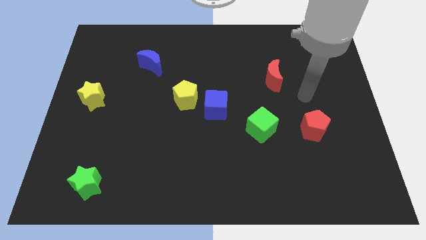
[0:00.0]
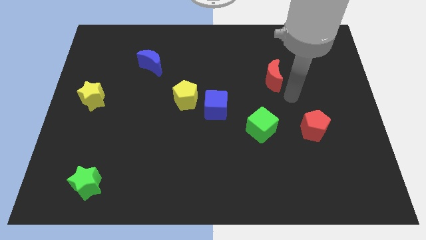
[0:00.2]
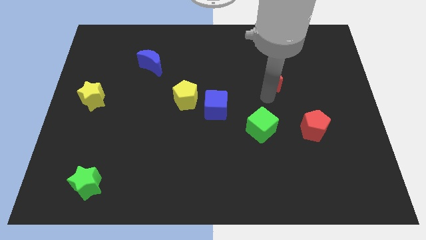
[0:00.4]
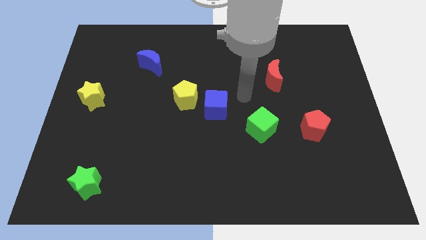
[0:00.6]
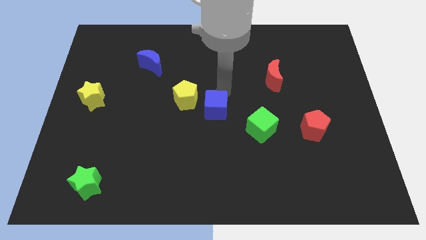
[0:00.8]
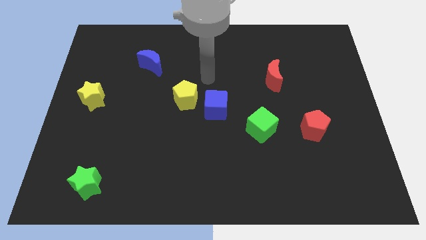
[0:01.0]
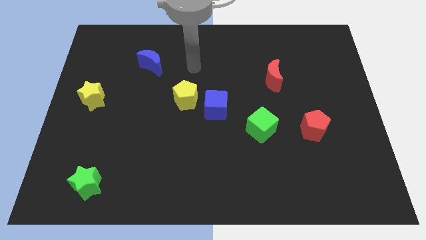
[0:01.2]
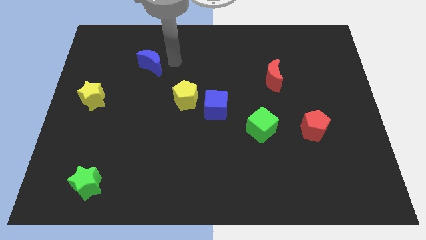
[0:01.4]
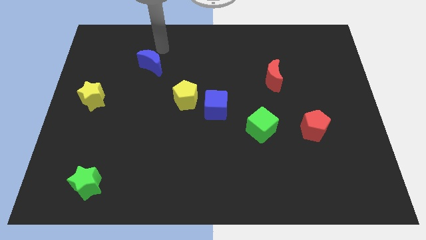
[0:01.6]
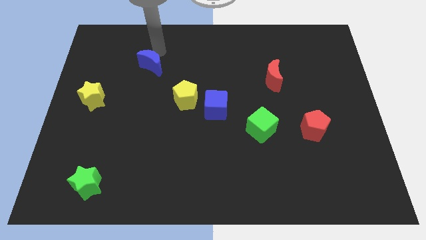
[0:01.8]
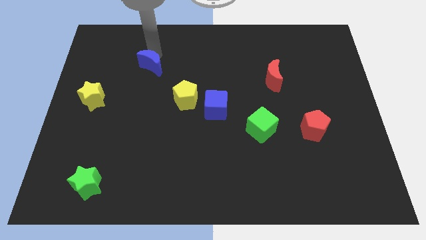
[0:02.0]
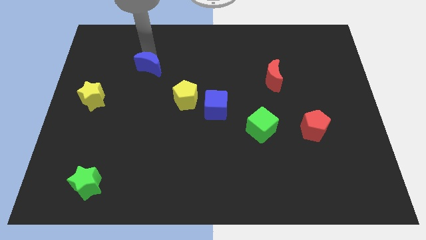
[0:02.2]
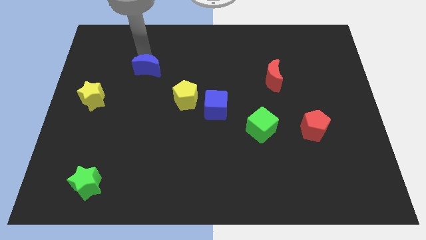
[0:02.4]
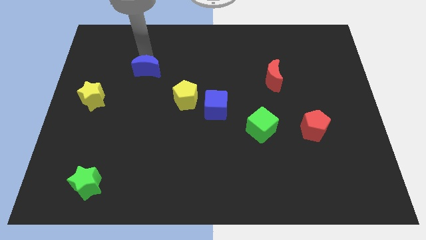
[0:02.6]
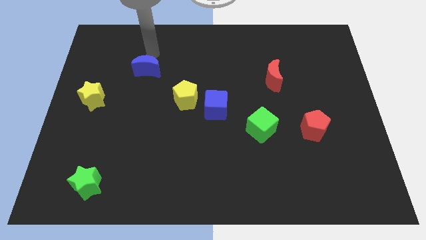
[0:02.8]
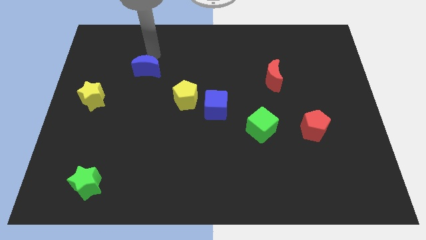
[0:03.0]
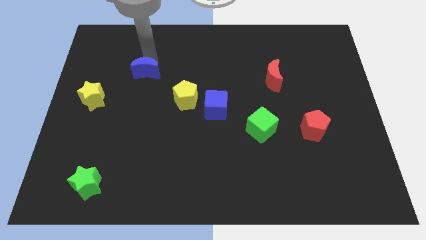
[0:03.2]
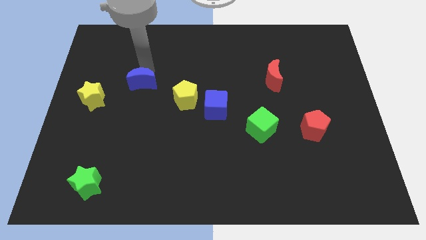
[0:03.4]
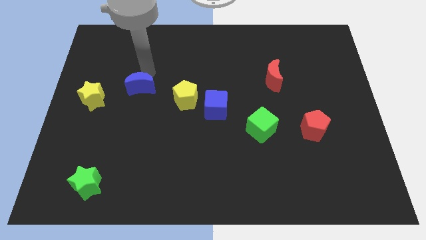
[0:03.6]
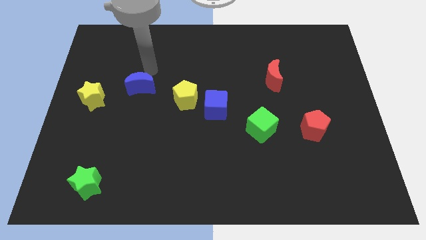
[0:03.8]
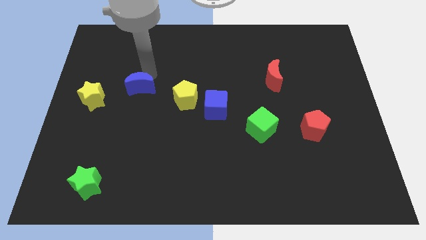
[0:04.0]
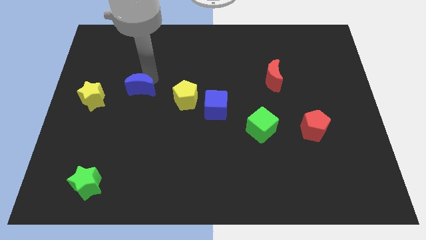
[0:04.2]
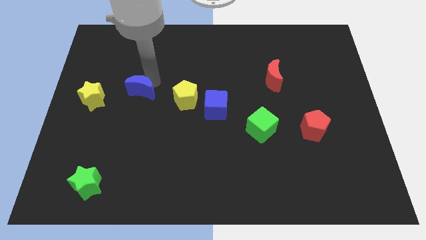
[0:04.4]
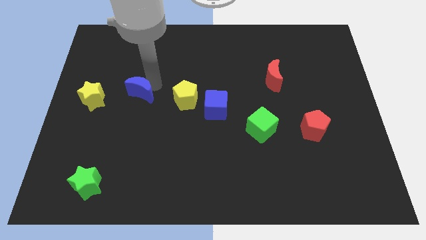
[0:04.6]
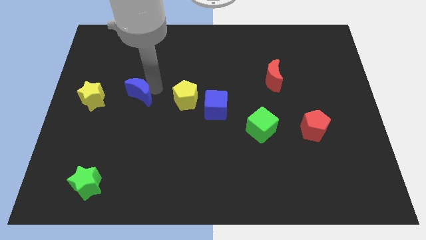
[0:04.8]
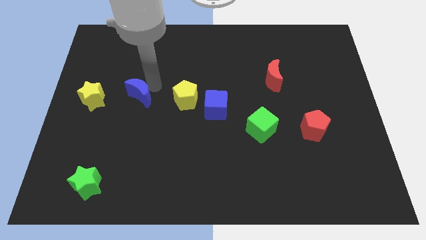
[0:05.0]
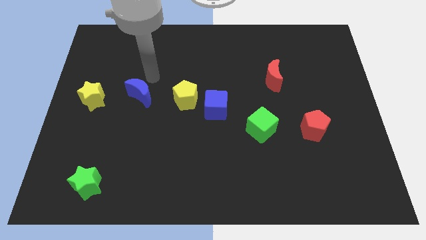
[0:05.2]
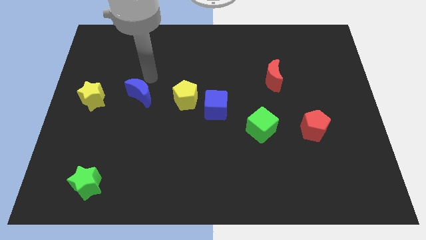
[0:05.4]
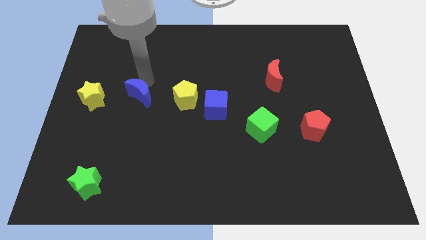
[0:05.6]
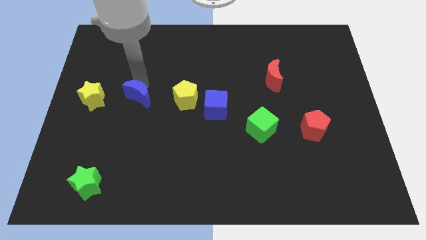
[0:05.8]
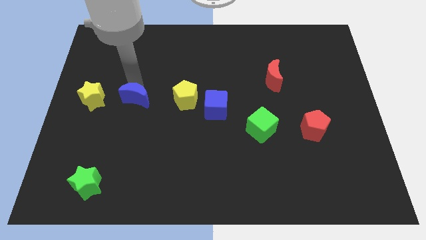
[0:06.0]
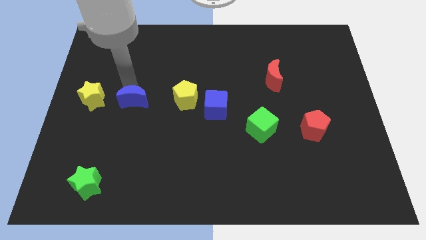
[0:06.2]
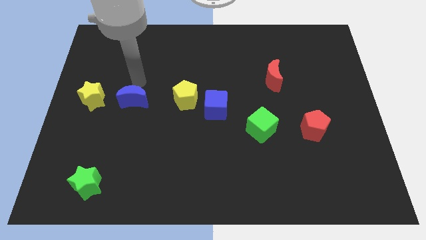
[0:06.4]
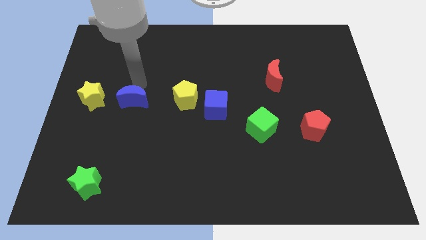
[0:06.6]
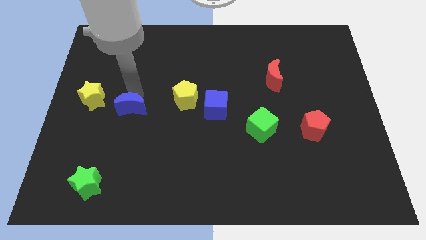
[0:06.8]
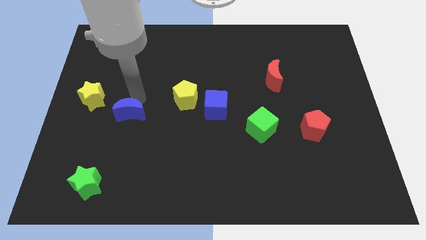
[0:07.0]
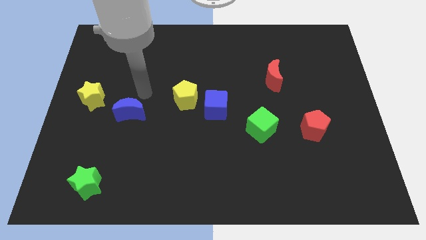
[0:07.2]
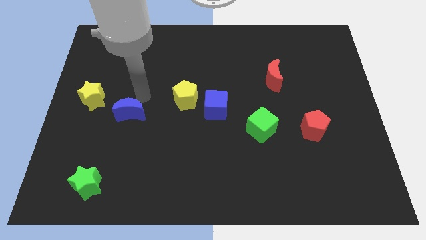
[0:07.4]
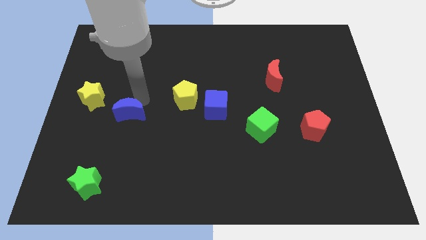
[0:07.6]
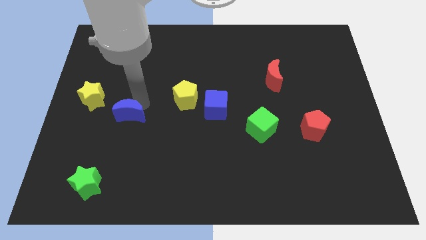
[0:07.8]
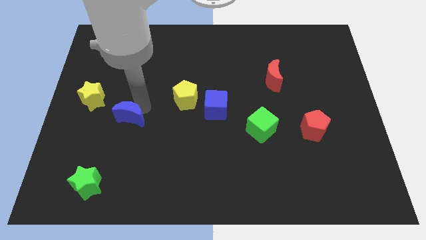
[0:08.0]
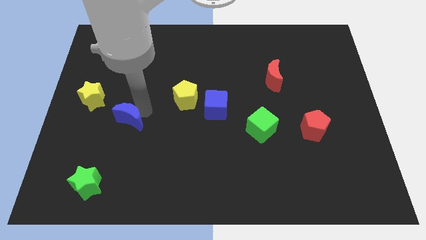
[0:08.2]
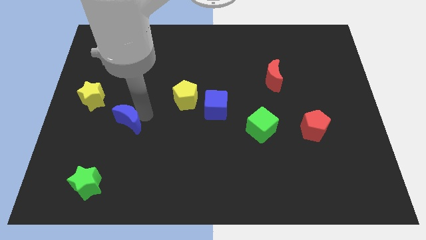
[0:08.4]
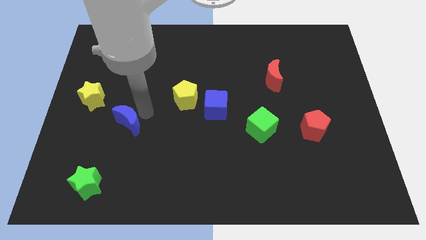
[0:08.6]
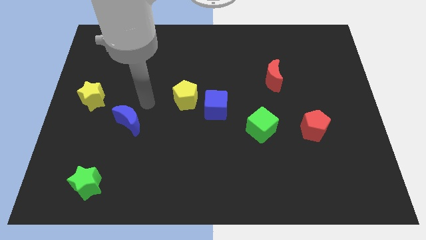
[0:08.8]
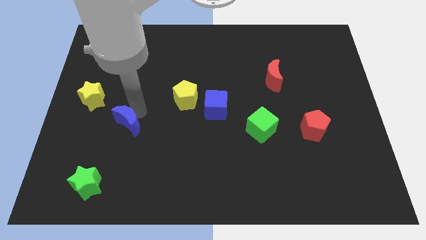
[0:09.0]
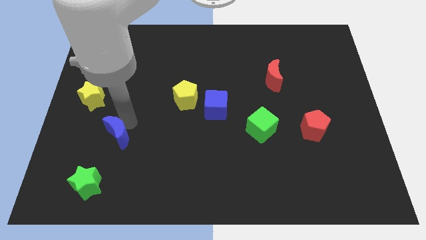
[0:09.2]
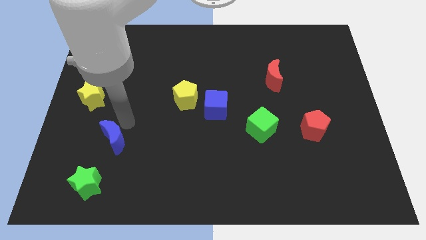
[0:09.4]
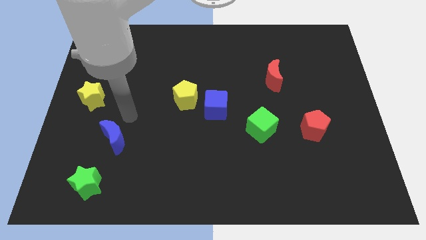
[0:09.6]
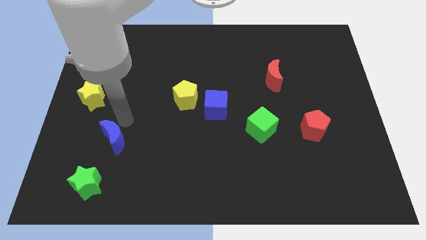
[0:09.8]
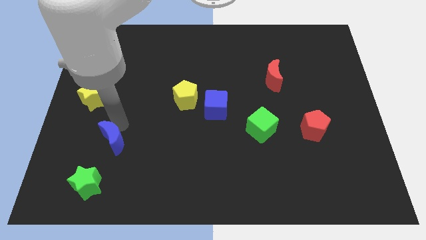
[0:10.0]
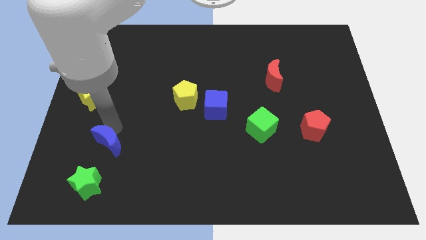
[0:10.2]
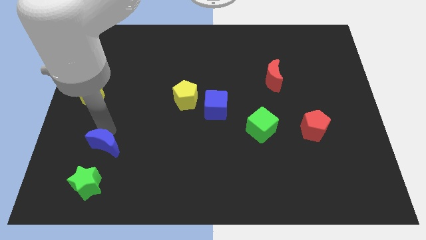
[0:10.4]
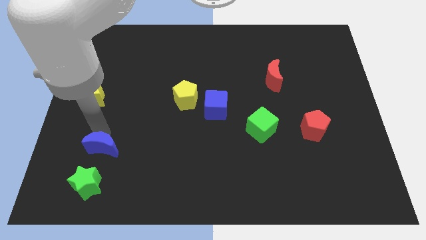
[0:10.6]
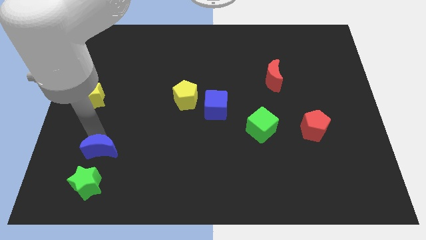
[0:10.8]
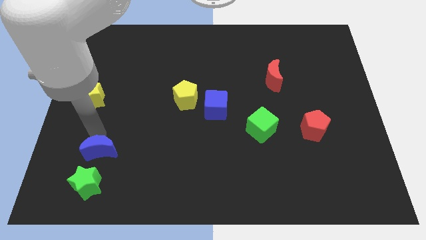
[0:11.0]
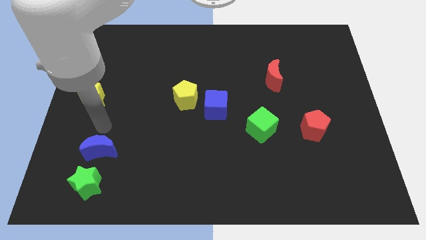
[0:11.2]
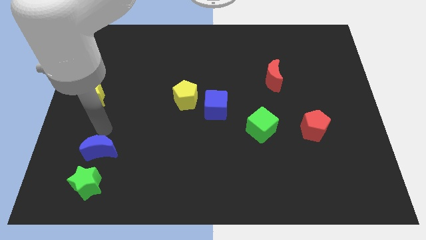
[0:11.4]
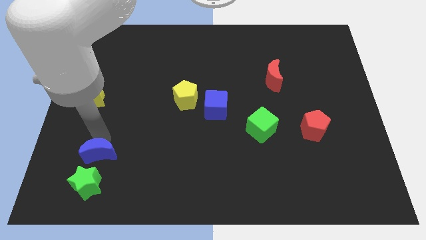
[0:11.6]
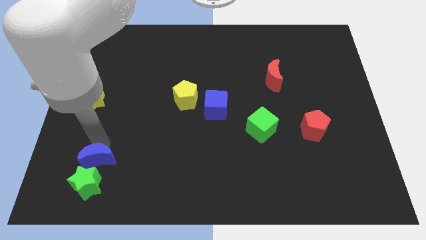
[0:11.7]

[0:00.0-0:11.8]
put the blue moon to the green star

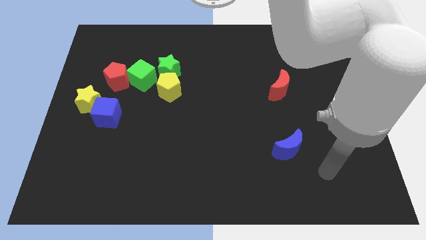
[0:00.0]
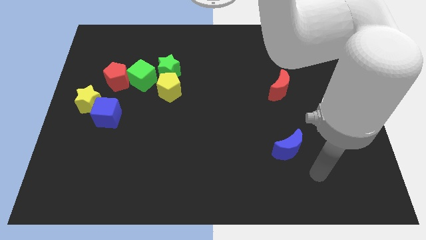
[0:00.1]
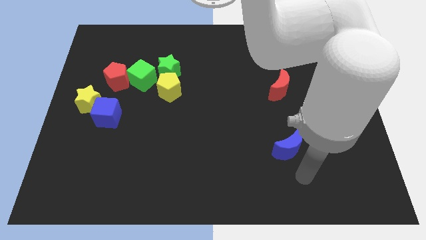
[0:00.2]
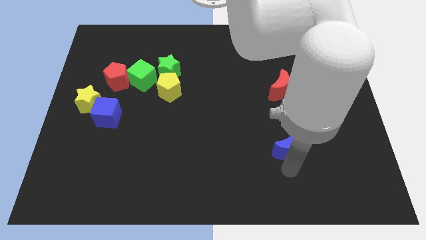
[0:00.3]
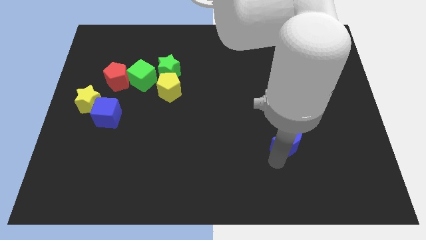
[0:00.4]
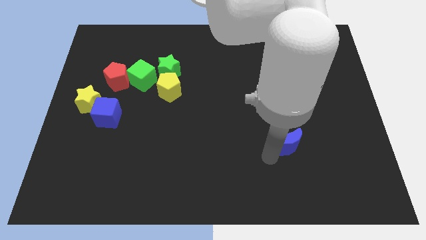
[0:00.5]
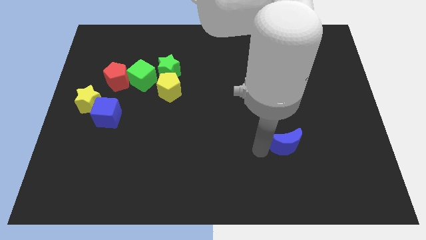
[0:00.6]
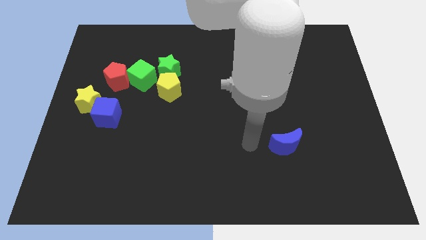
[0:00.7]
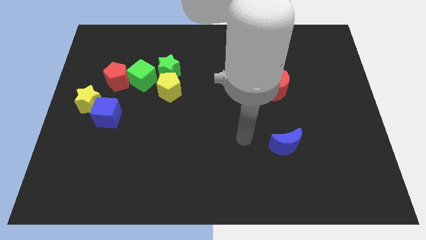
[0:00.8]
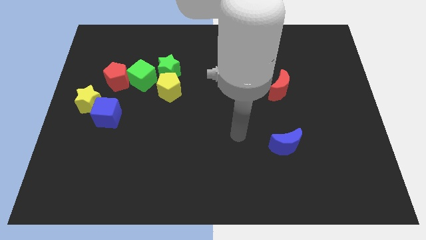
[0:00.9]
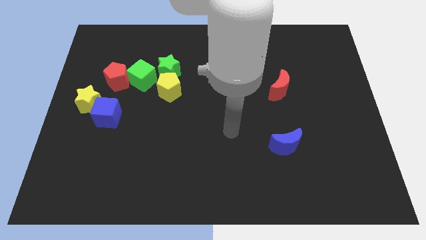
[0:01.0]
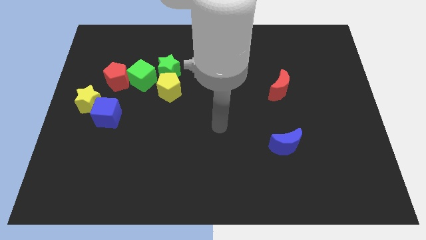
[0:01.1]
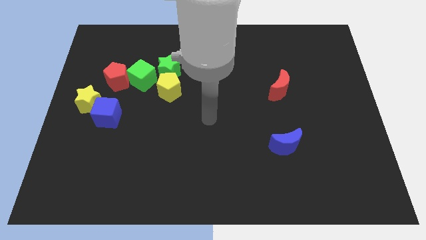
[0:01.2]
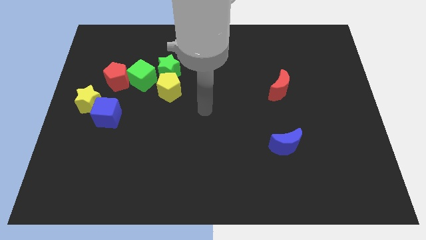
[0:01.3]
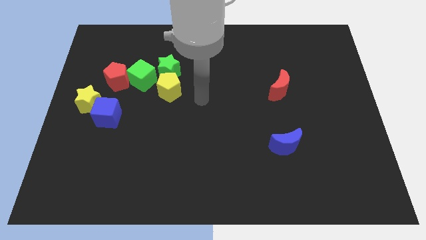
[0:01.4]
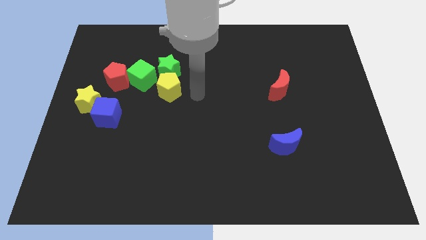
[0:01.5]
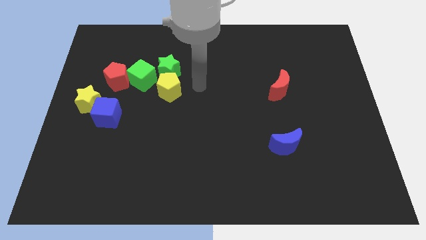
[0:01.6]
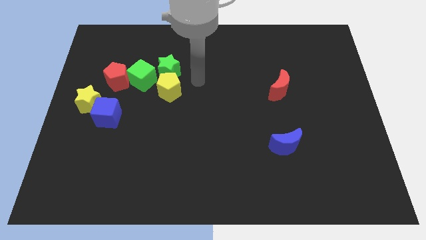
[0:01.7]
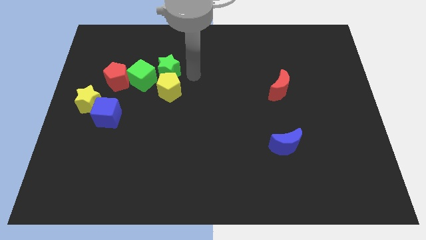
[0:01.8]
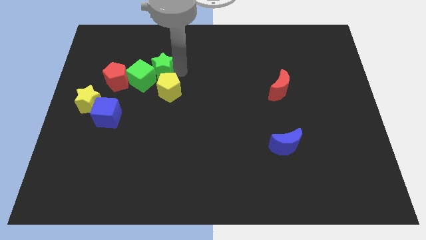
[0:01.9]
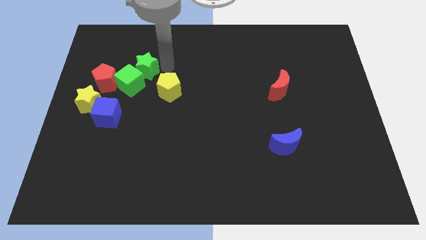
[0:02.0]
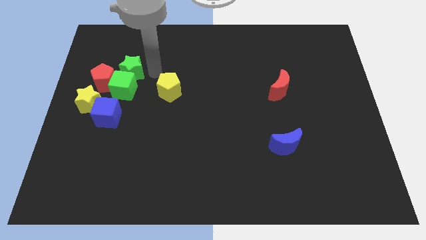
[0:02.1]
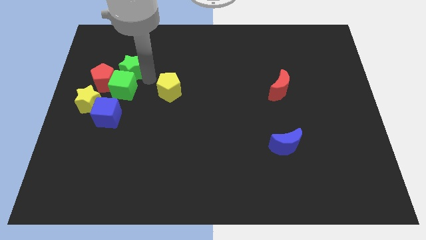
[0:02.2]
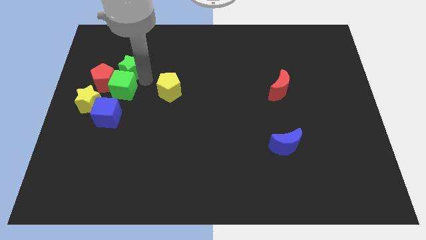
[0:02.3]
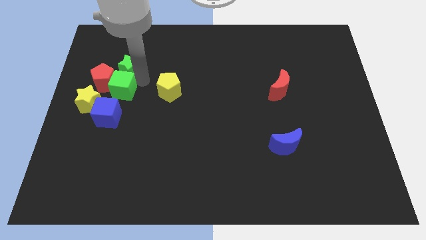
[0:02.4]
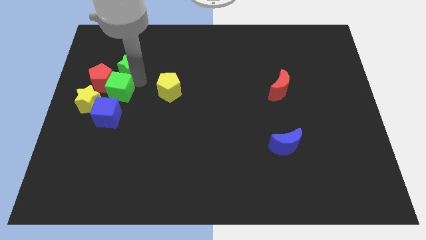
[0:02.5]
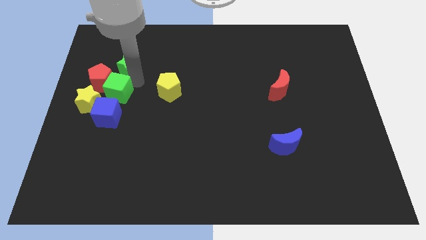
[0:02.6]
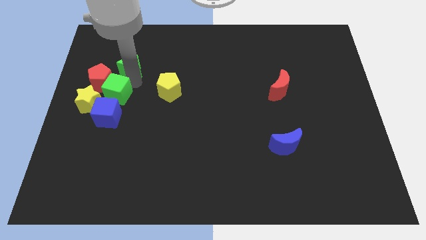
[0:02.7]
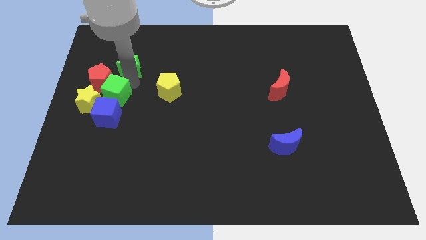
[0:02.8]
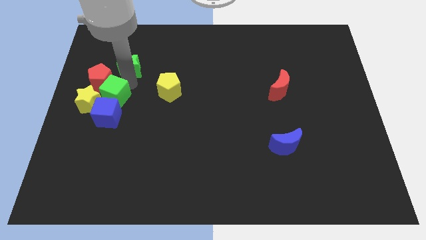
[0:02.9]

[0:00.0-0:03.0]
move the green cube close to the yellow star
